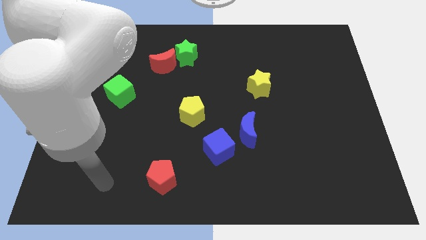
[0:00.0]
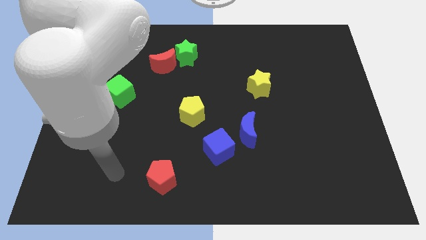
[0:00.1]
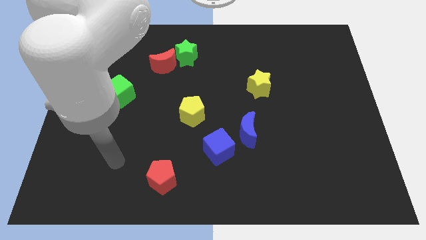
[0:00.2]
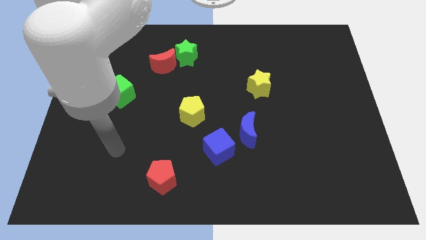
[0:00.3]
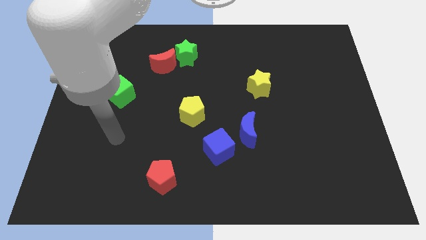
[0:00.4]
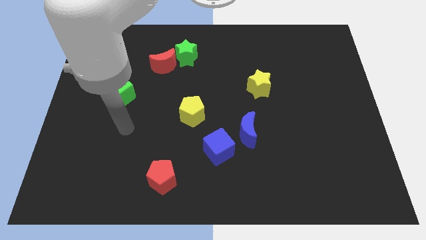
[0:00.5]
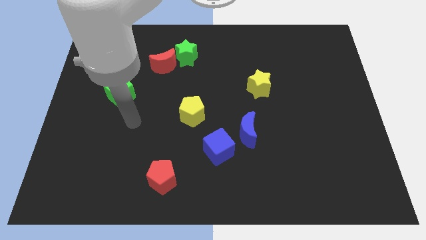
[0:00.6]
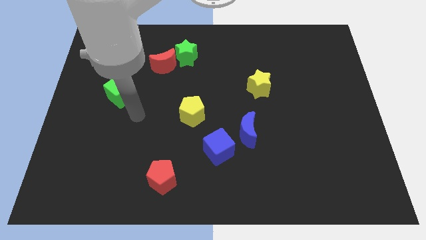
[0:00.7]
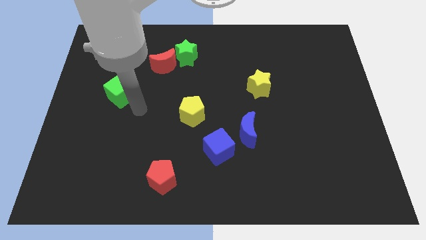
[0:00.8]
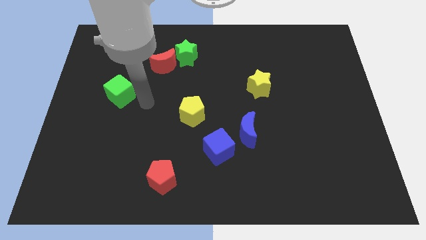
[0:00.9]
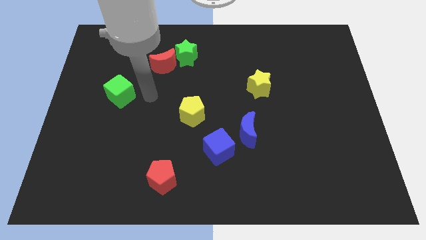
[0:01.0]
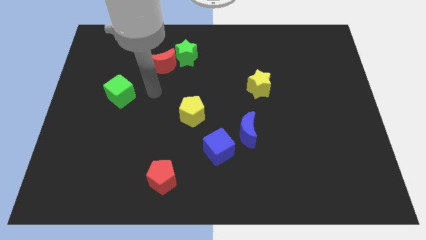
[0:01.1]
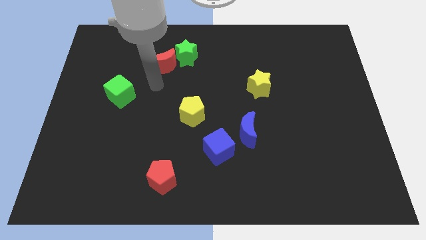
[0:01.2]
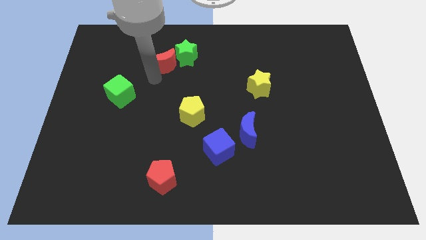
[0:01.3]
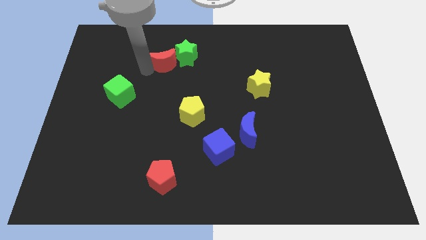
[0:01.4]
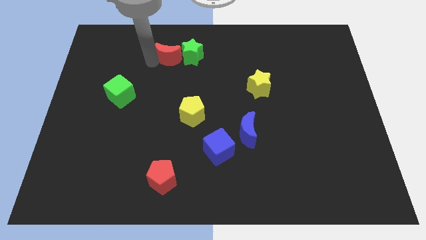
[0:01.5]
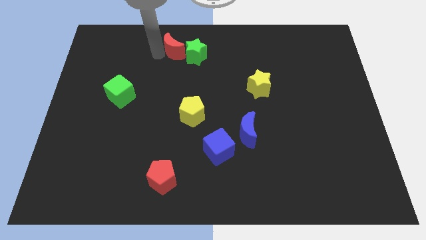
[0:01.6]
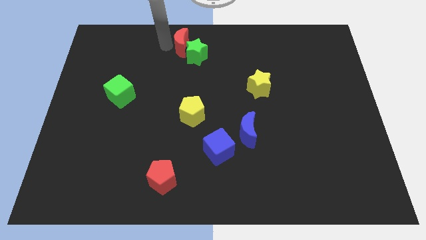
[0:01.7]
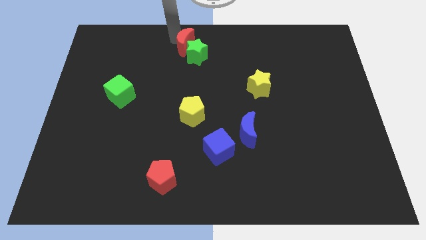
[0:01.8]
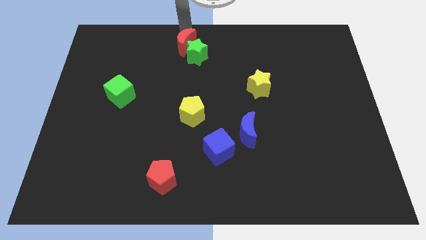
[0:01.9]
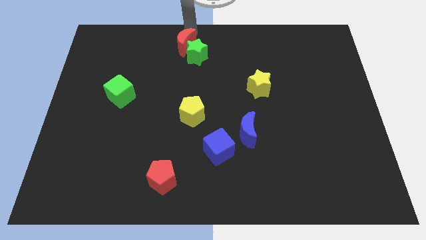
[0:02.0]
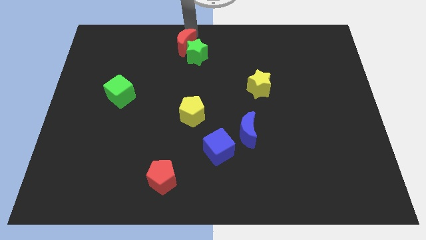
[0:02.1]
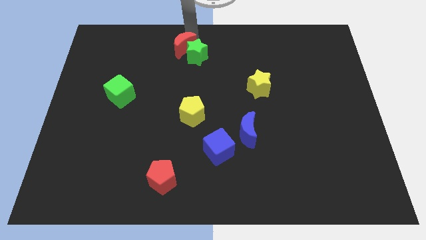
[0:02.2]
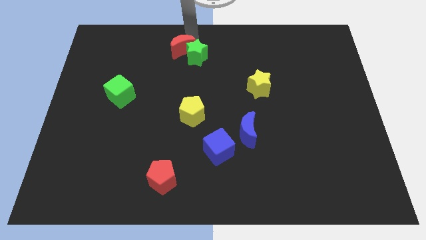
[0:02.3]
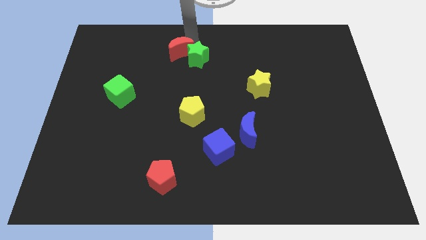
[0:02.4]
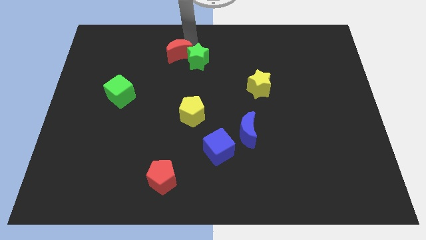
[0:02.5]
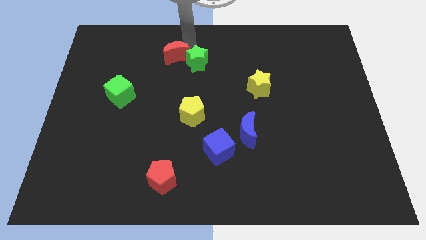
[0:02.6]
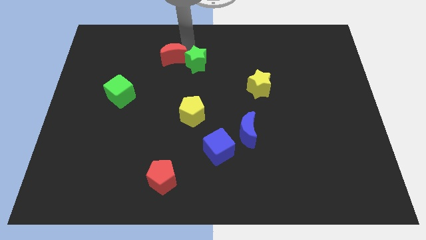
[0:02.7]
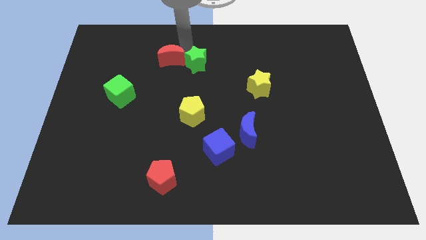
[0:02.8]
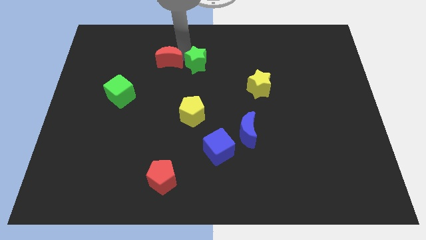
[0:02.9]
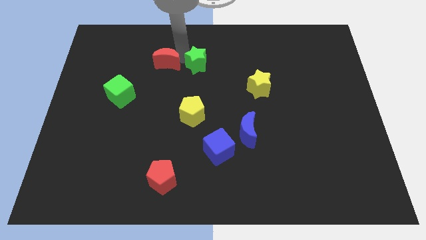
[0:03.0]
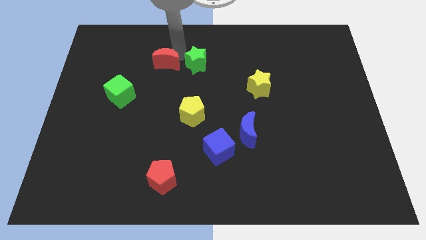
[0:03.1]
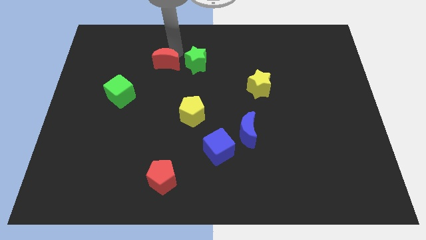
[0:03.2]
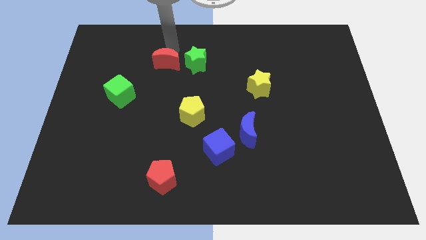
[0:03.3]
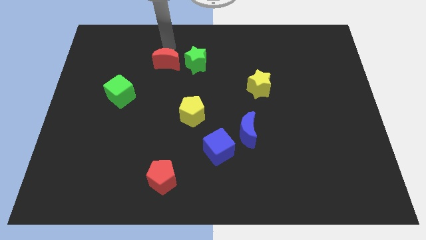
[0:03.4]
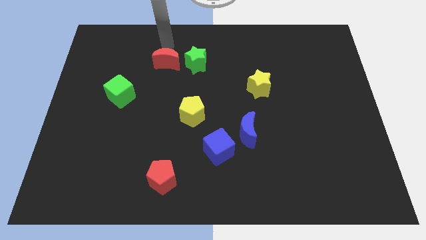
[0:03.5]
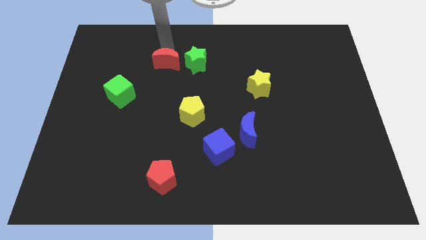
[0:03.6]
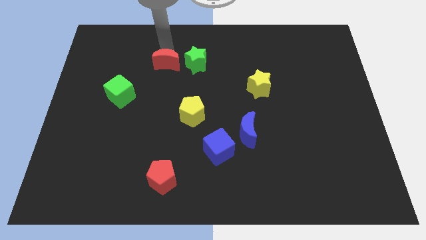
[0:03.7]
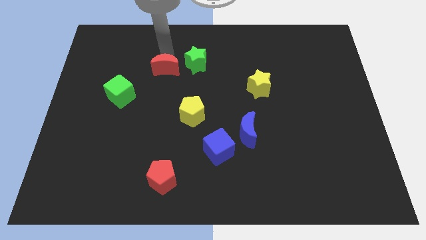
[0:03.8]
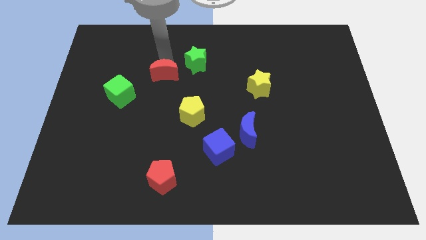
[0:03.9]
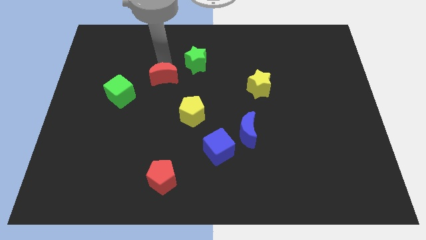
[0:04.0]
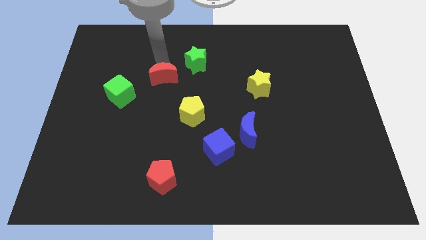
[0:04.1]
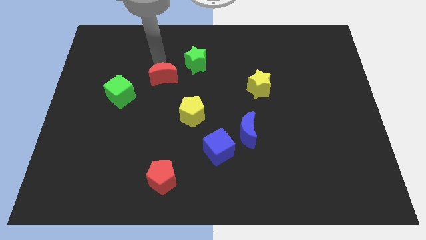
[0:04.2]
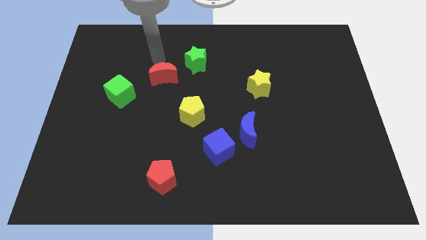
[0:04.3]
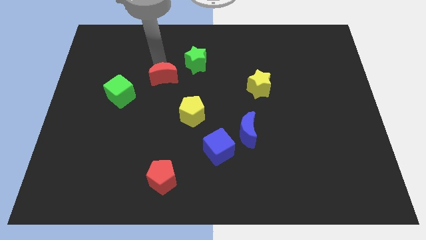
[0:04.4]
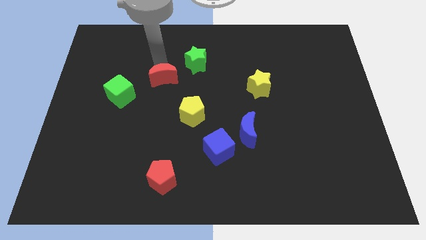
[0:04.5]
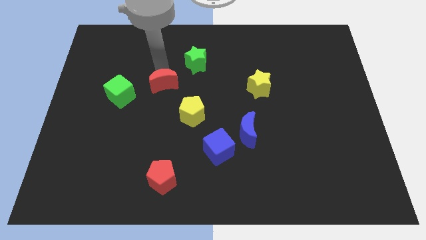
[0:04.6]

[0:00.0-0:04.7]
push the red moon to the top left of the yellow pentagon

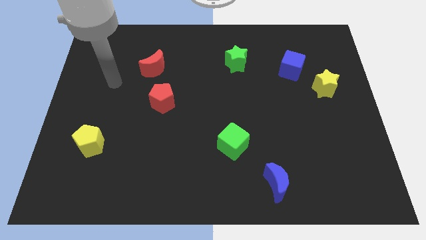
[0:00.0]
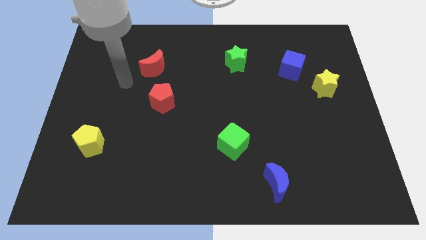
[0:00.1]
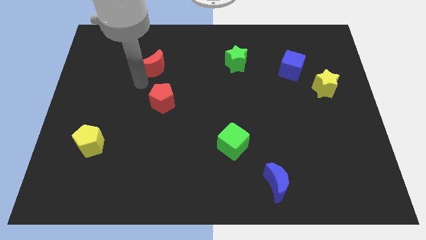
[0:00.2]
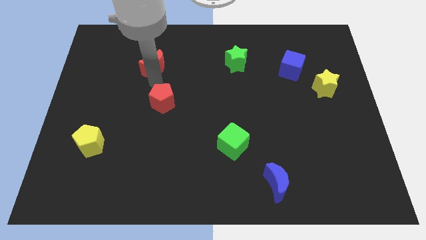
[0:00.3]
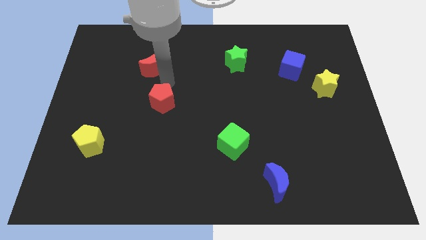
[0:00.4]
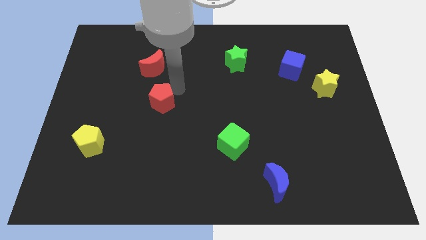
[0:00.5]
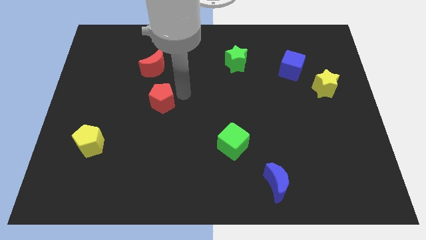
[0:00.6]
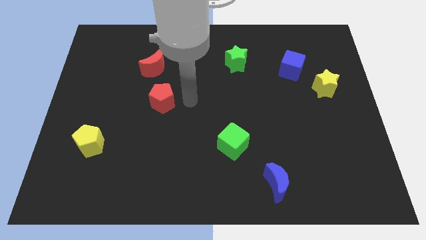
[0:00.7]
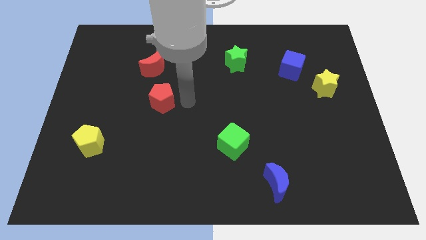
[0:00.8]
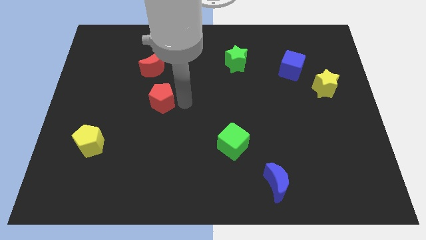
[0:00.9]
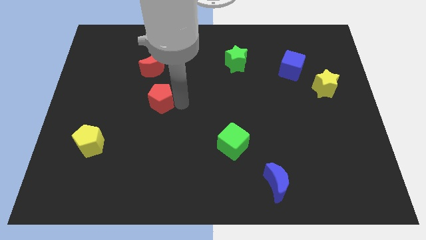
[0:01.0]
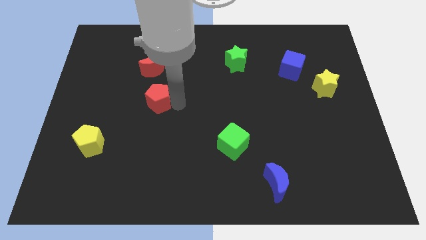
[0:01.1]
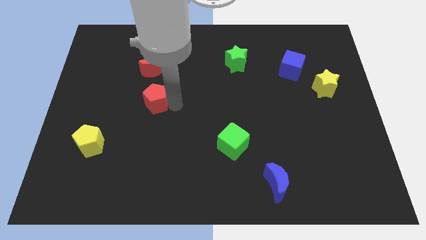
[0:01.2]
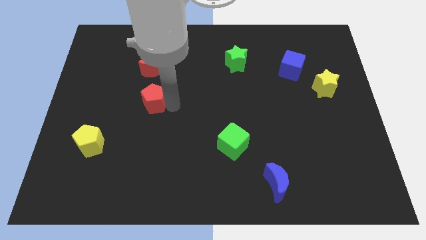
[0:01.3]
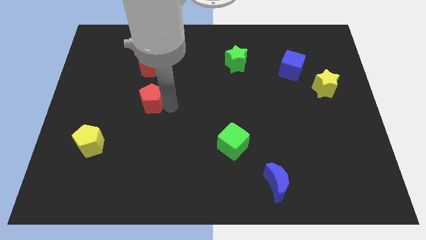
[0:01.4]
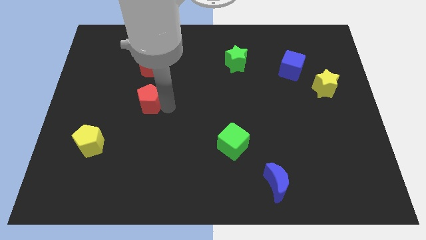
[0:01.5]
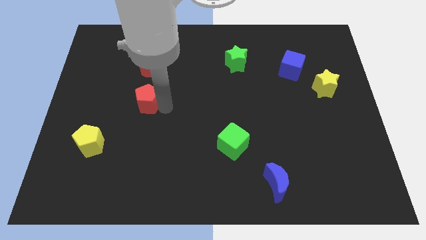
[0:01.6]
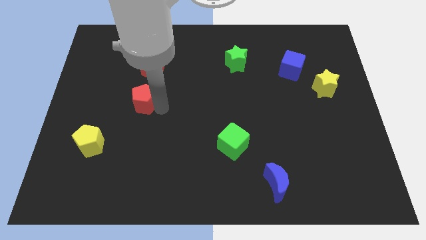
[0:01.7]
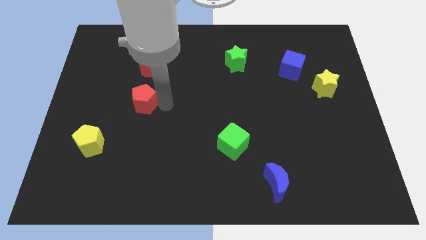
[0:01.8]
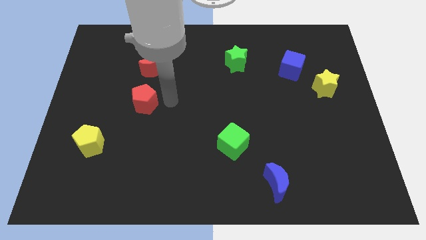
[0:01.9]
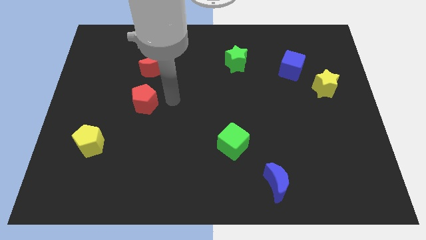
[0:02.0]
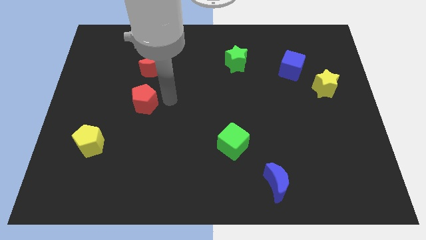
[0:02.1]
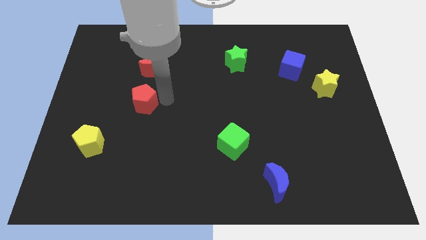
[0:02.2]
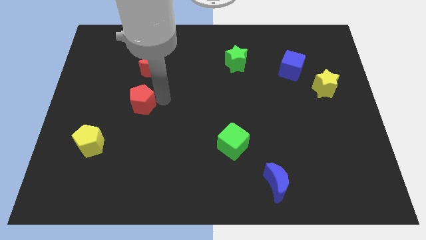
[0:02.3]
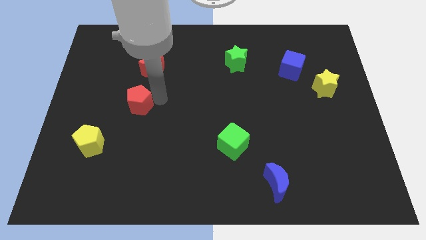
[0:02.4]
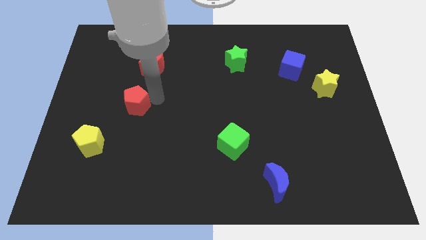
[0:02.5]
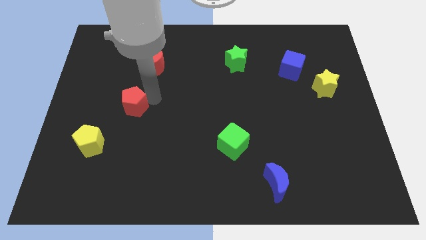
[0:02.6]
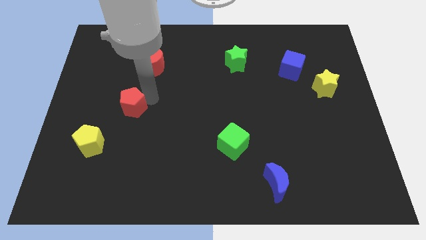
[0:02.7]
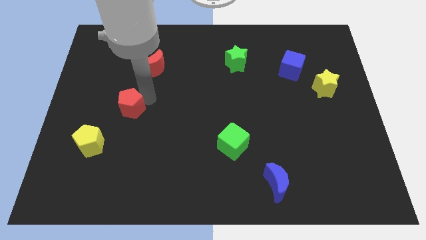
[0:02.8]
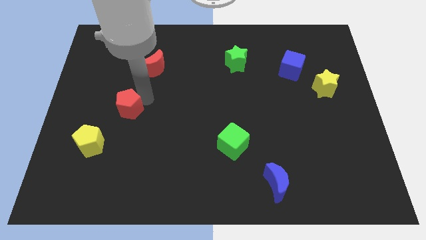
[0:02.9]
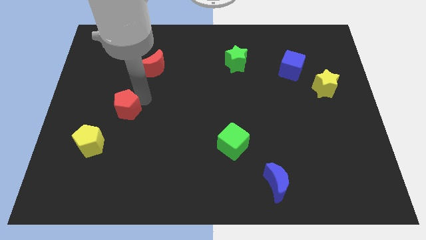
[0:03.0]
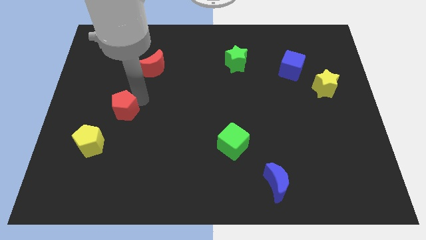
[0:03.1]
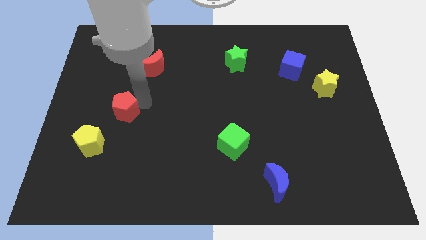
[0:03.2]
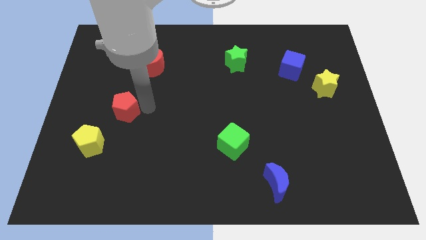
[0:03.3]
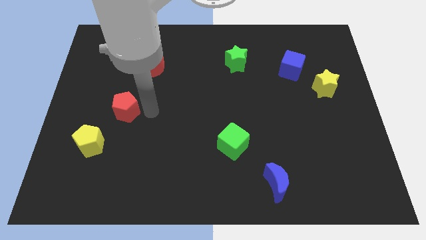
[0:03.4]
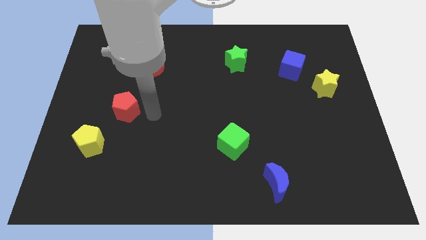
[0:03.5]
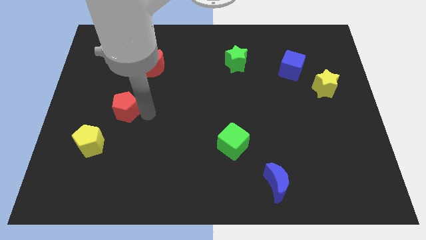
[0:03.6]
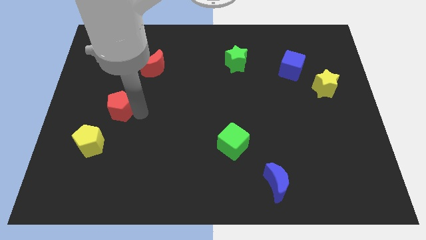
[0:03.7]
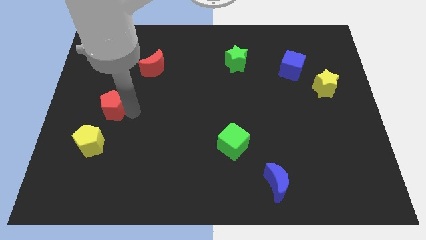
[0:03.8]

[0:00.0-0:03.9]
move the red pentagon to the top side of the yellow pentagon
